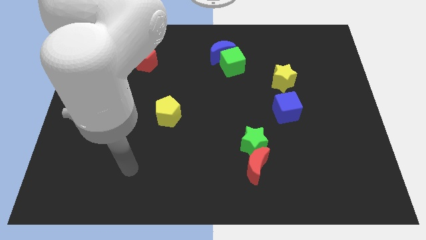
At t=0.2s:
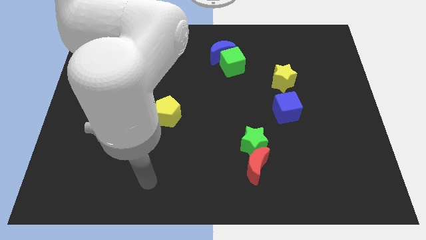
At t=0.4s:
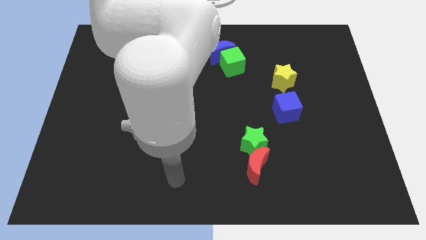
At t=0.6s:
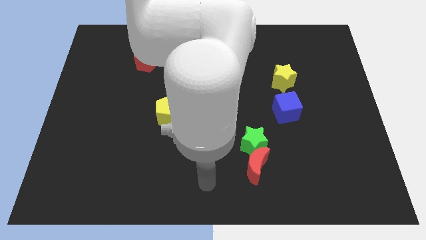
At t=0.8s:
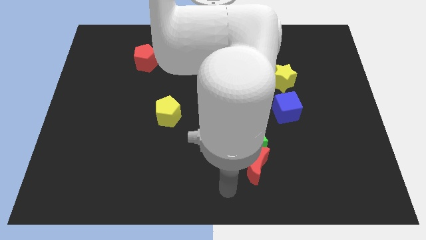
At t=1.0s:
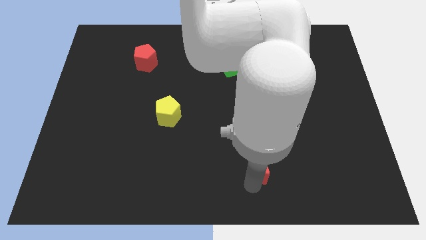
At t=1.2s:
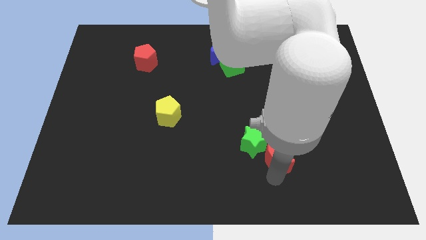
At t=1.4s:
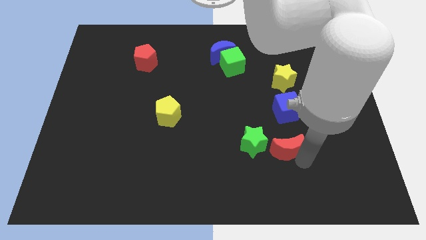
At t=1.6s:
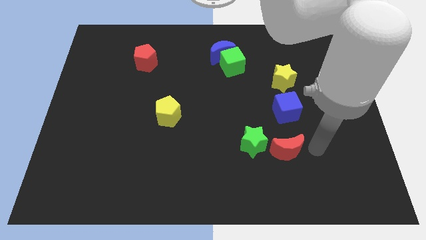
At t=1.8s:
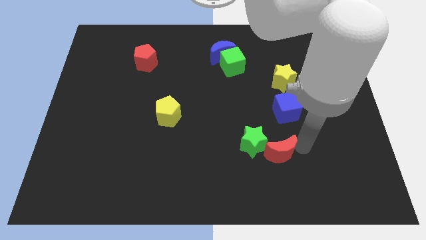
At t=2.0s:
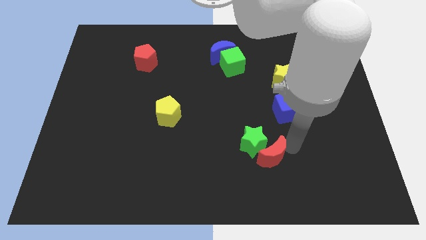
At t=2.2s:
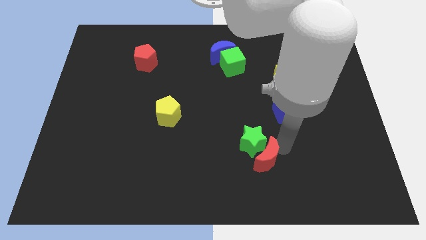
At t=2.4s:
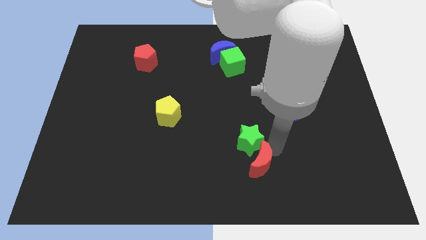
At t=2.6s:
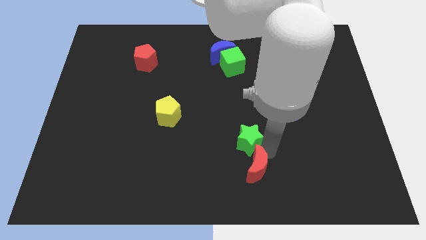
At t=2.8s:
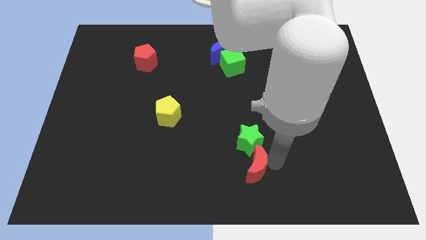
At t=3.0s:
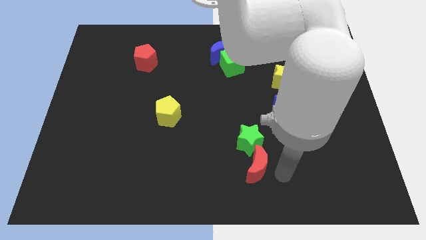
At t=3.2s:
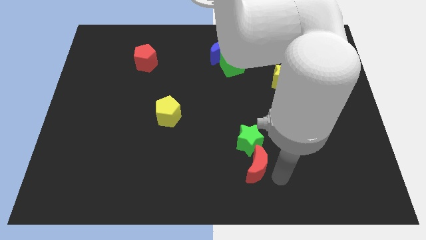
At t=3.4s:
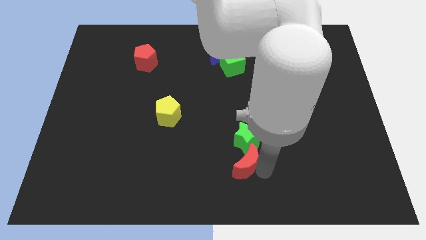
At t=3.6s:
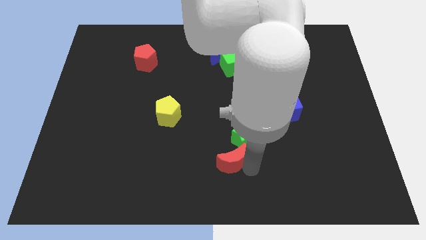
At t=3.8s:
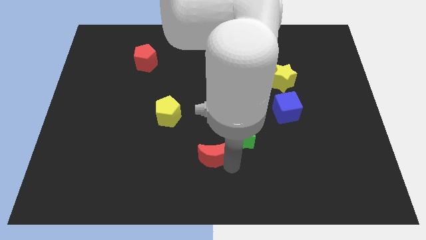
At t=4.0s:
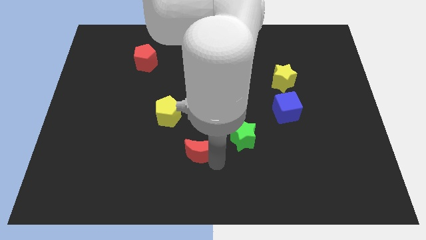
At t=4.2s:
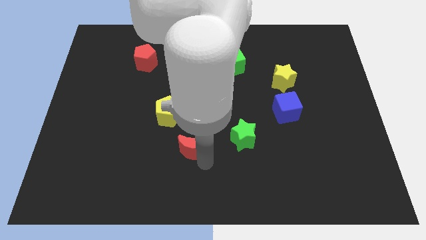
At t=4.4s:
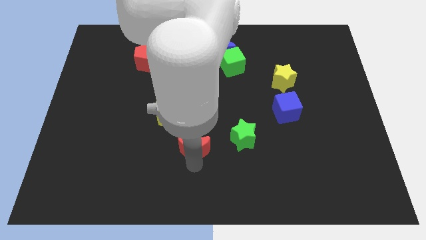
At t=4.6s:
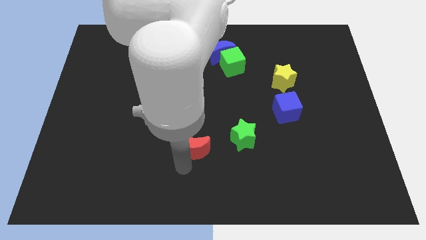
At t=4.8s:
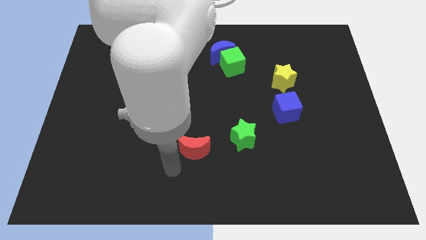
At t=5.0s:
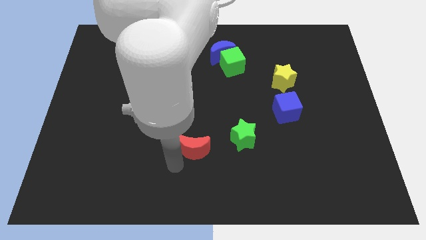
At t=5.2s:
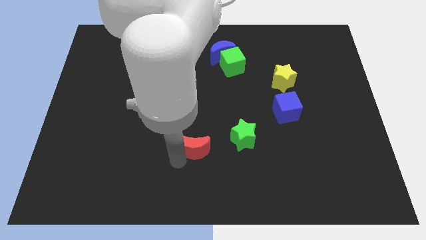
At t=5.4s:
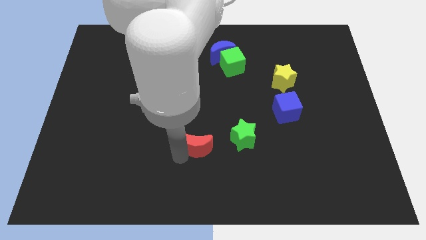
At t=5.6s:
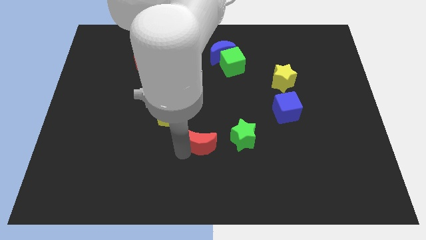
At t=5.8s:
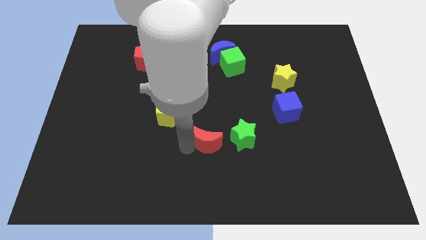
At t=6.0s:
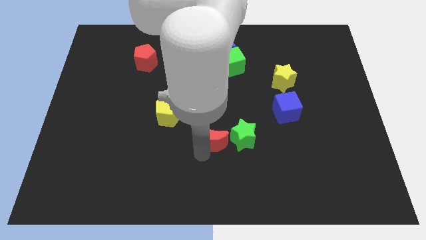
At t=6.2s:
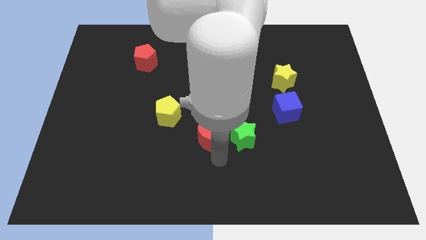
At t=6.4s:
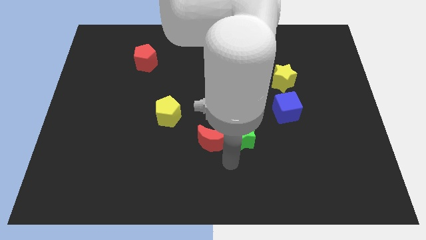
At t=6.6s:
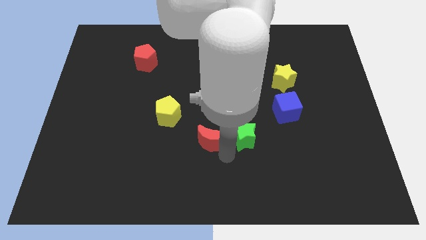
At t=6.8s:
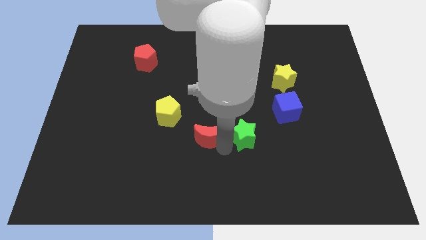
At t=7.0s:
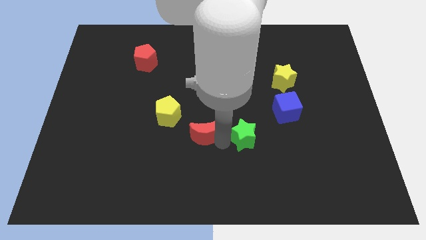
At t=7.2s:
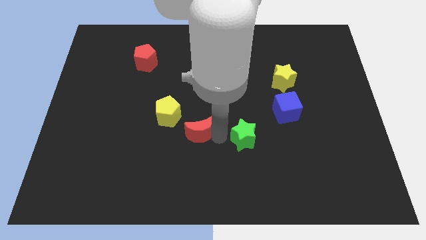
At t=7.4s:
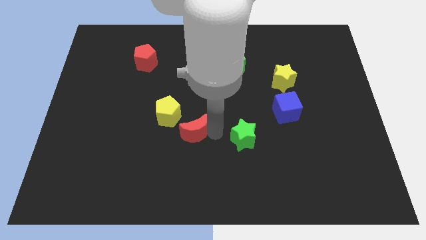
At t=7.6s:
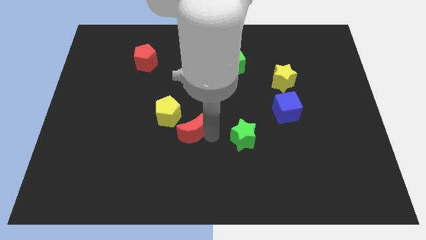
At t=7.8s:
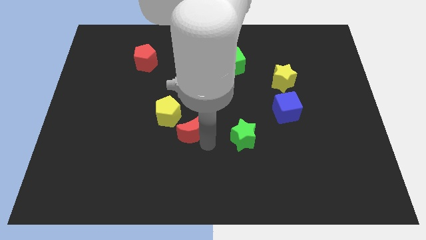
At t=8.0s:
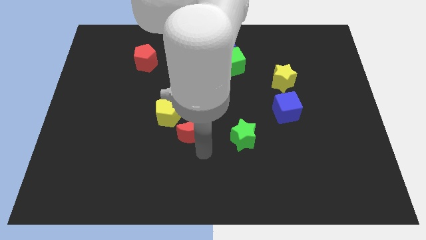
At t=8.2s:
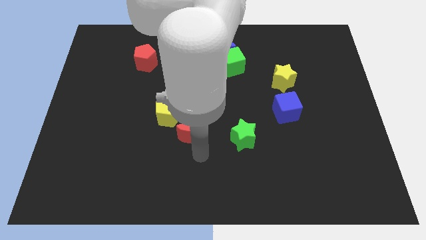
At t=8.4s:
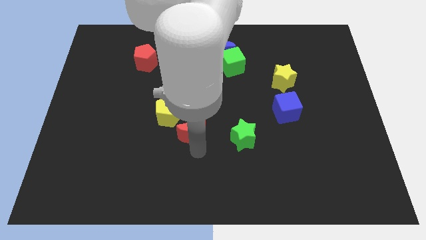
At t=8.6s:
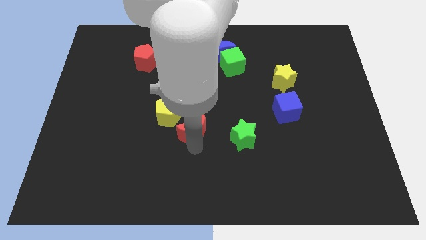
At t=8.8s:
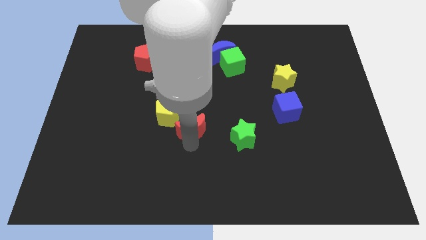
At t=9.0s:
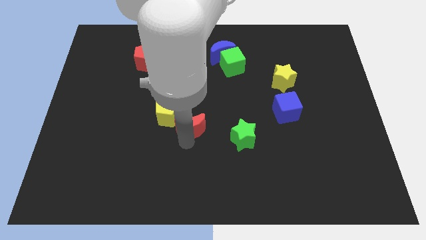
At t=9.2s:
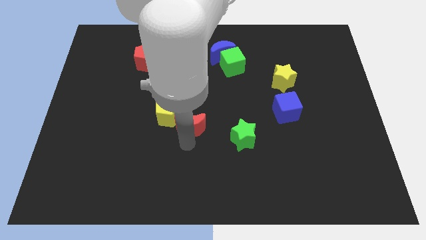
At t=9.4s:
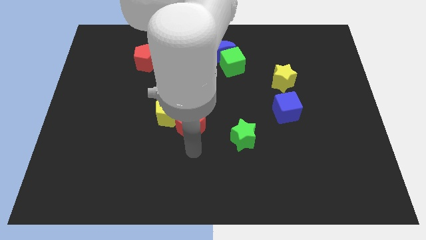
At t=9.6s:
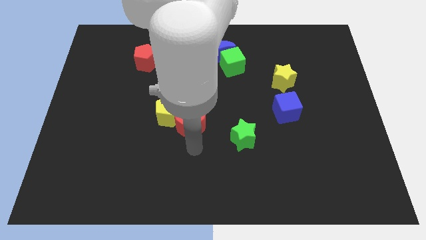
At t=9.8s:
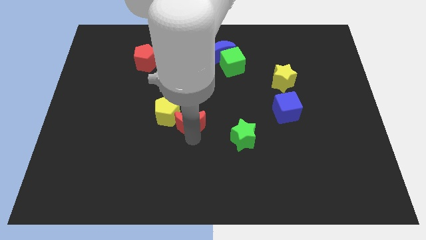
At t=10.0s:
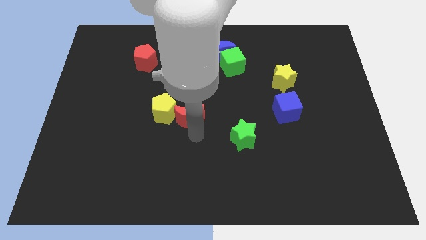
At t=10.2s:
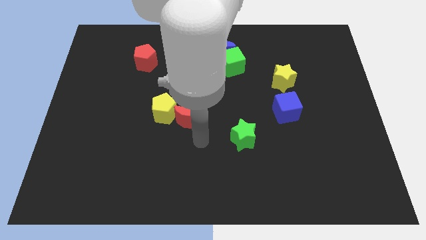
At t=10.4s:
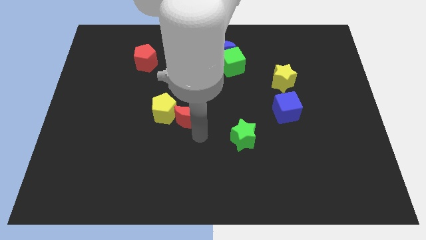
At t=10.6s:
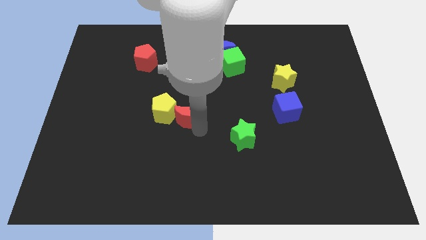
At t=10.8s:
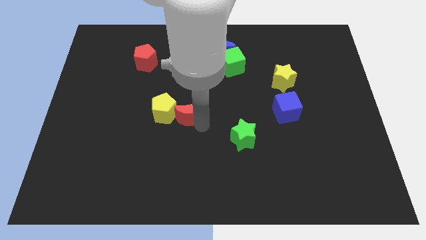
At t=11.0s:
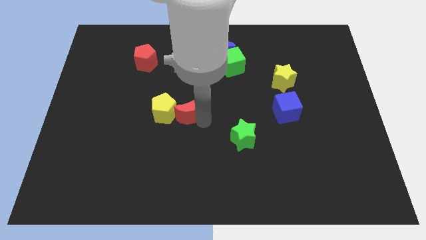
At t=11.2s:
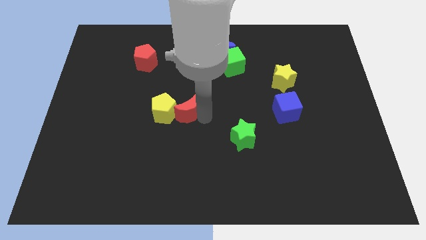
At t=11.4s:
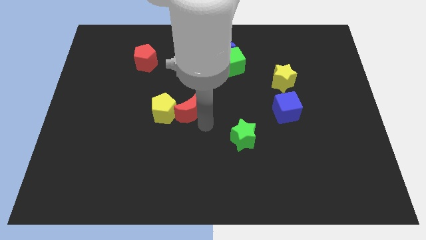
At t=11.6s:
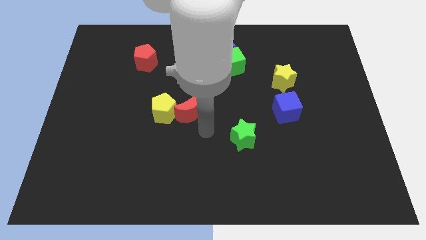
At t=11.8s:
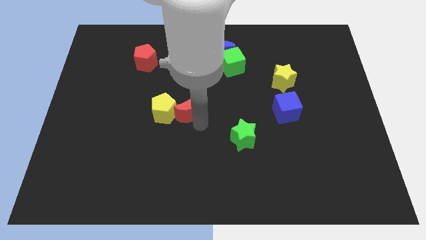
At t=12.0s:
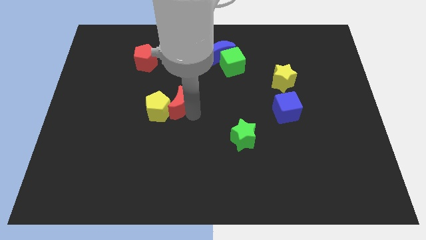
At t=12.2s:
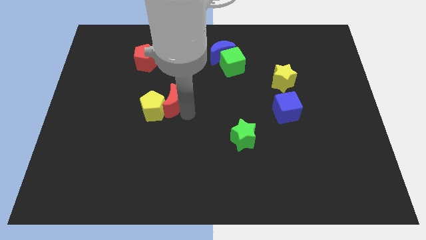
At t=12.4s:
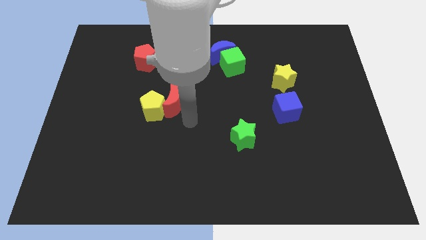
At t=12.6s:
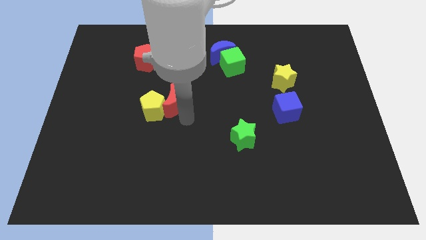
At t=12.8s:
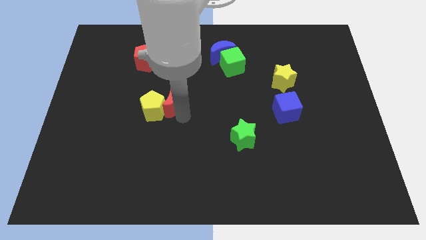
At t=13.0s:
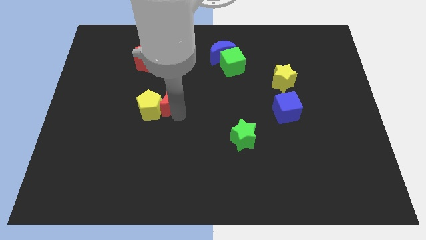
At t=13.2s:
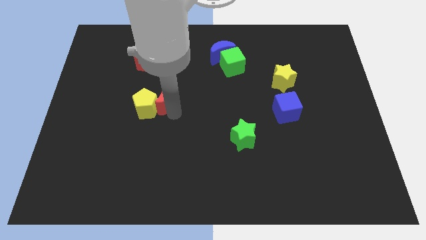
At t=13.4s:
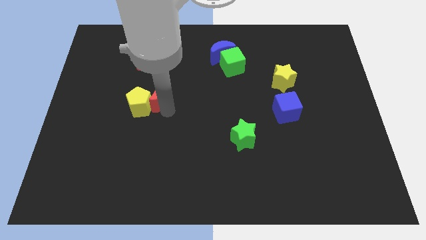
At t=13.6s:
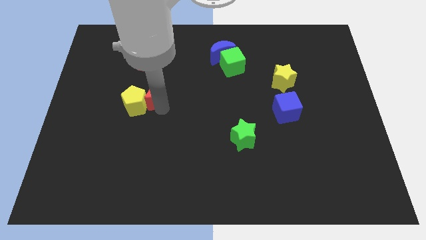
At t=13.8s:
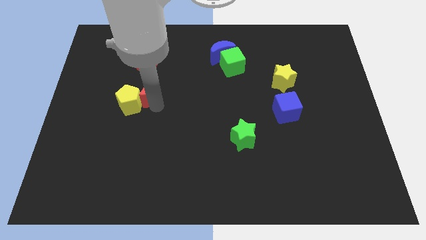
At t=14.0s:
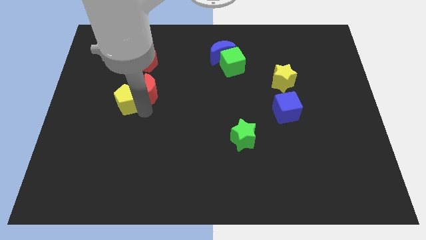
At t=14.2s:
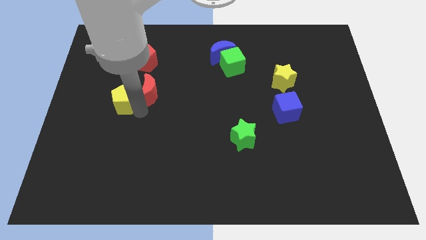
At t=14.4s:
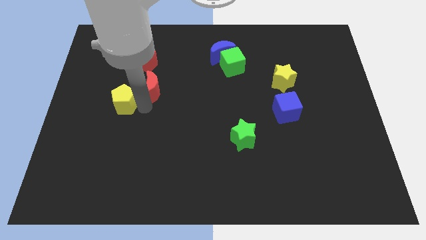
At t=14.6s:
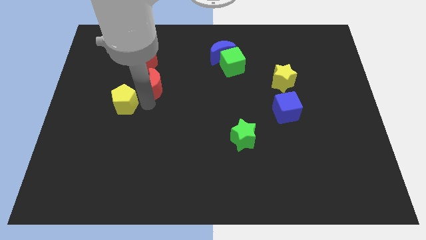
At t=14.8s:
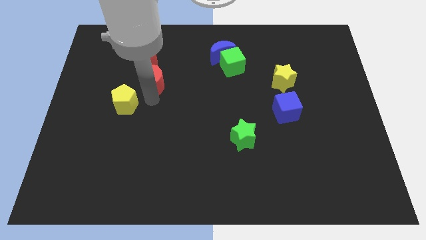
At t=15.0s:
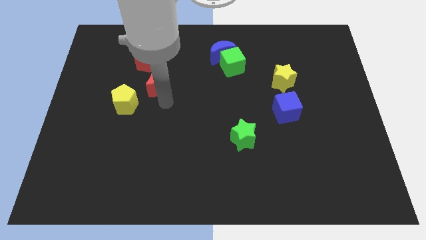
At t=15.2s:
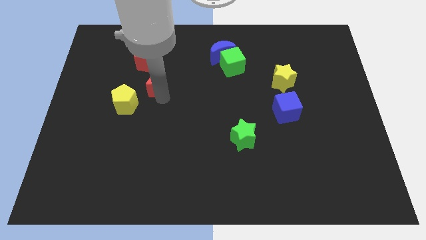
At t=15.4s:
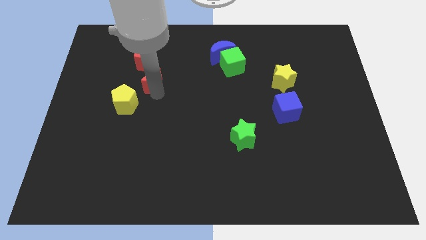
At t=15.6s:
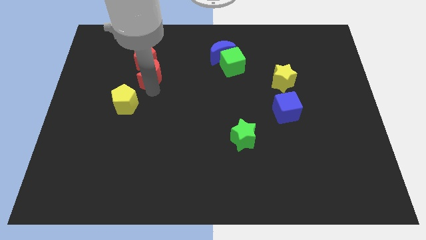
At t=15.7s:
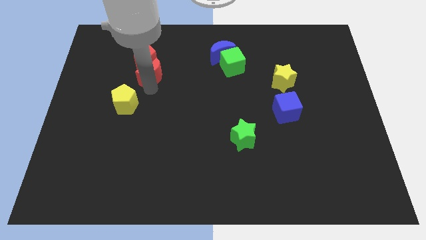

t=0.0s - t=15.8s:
put the red moon to the red pentagon
